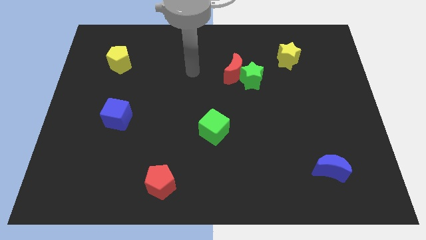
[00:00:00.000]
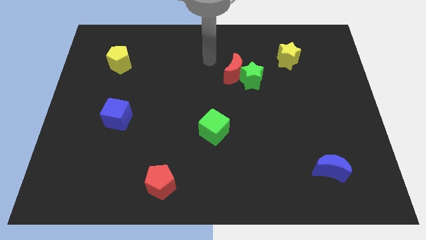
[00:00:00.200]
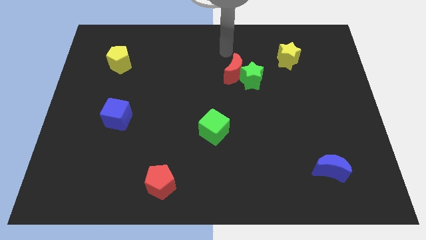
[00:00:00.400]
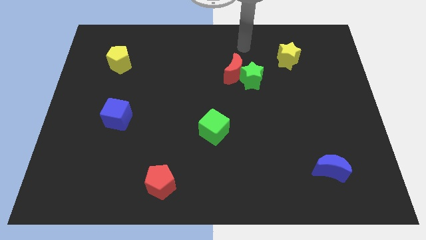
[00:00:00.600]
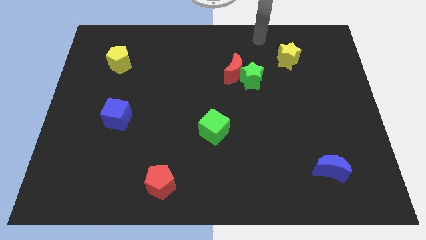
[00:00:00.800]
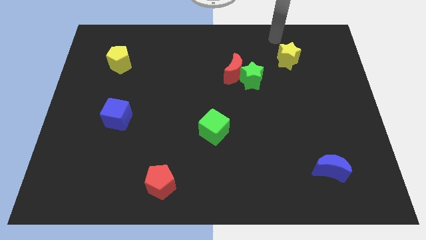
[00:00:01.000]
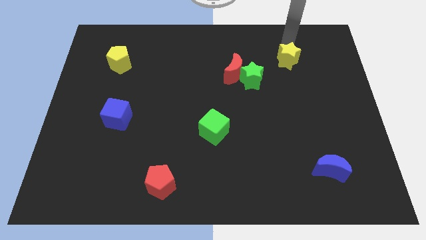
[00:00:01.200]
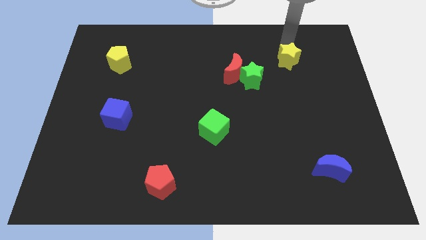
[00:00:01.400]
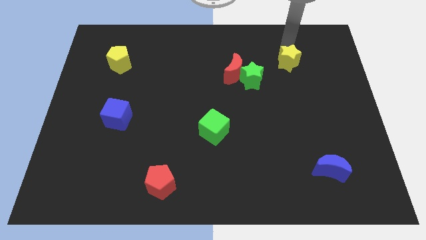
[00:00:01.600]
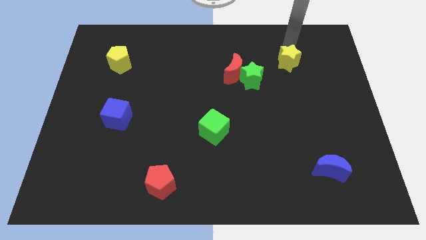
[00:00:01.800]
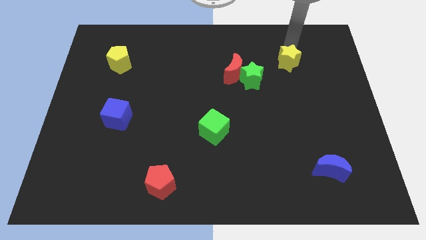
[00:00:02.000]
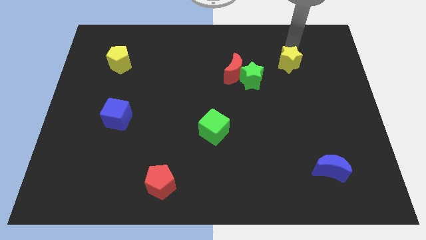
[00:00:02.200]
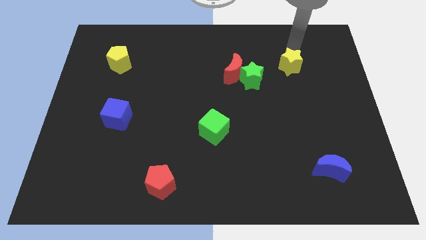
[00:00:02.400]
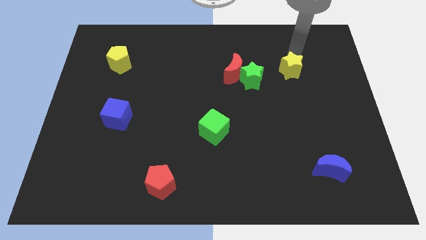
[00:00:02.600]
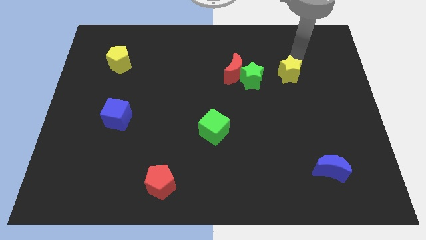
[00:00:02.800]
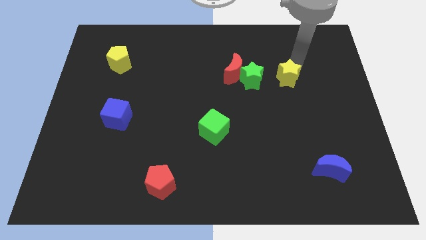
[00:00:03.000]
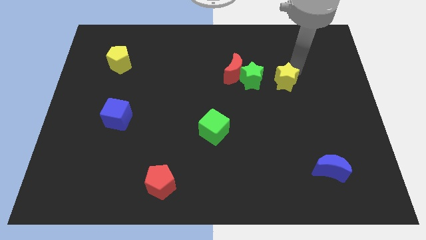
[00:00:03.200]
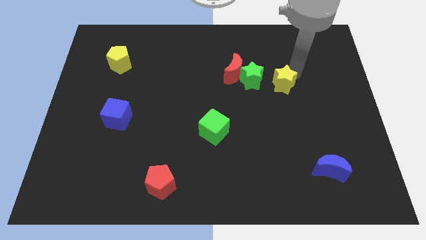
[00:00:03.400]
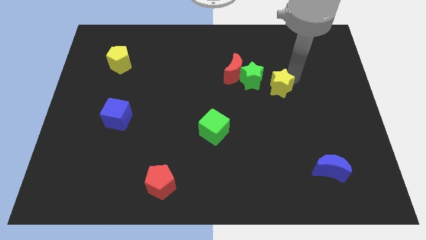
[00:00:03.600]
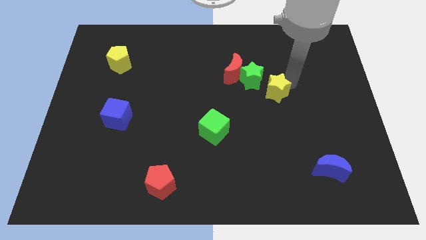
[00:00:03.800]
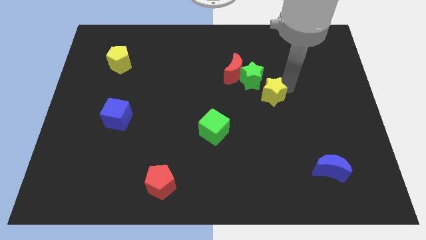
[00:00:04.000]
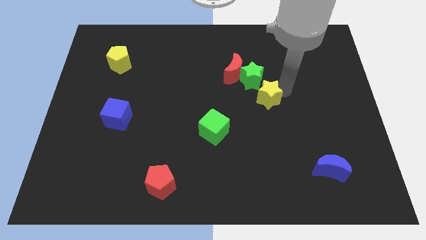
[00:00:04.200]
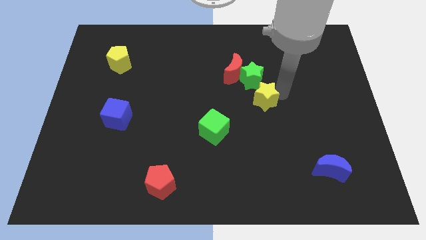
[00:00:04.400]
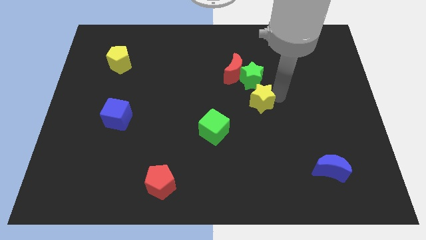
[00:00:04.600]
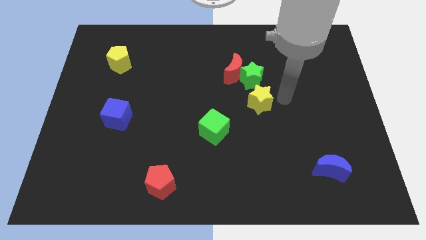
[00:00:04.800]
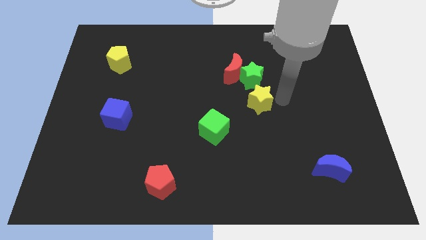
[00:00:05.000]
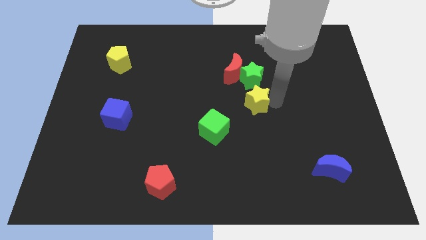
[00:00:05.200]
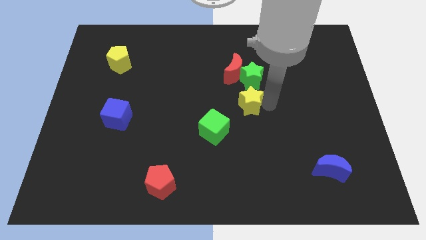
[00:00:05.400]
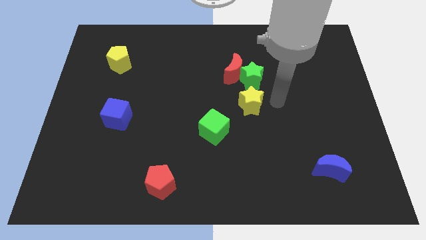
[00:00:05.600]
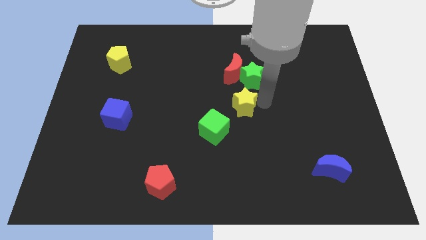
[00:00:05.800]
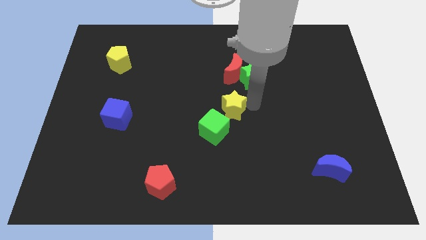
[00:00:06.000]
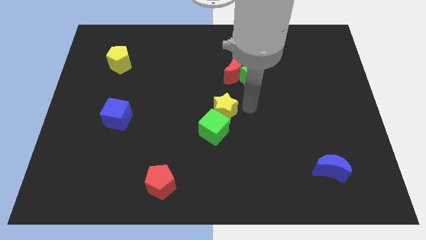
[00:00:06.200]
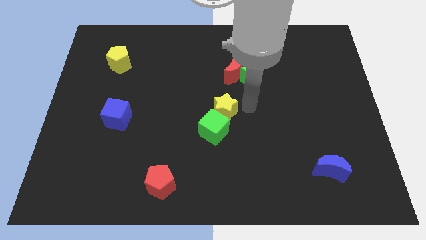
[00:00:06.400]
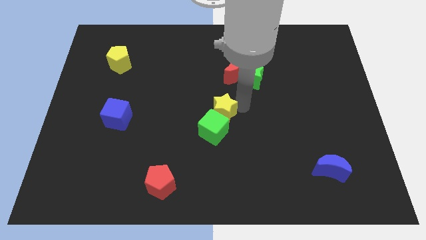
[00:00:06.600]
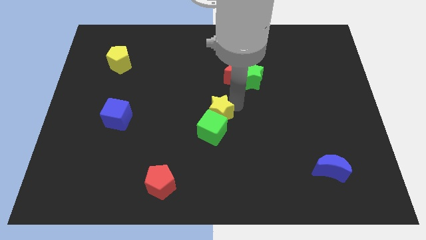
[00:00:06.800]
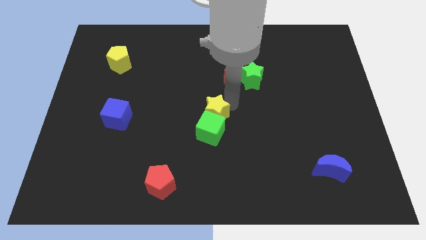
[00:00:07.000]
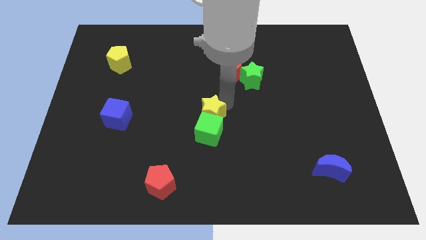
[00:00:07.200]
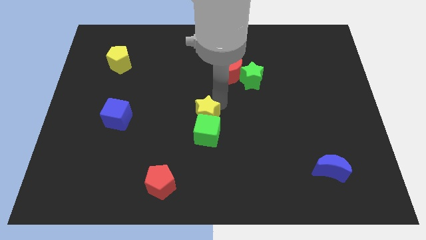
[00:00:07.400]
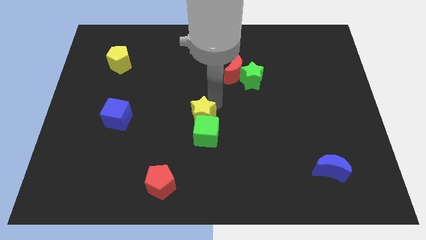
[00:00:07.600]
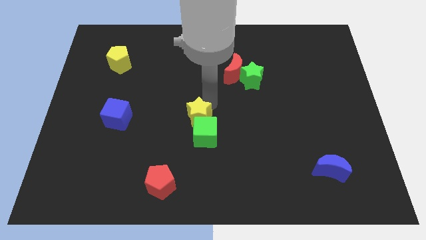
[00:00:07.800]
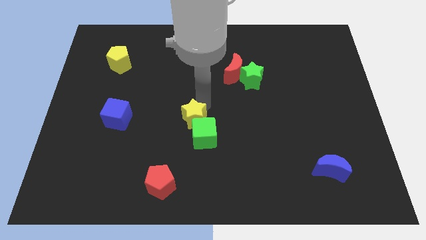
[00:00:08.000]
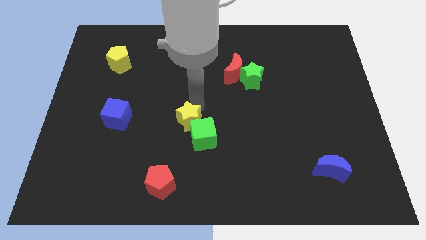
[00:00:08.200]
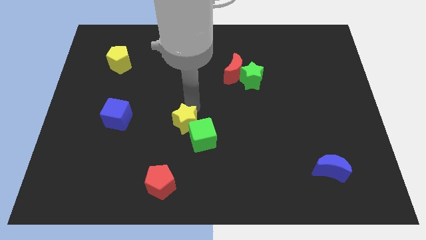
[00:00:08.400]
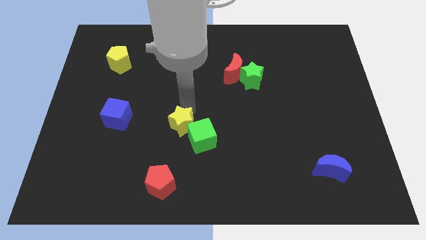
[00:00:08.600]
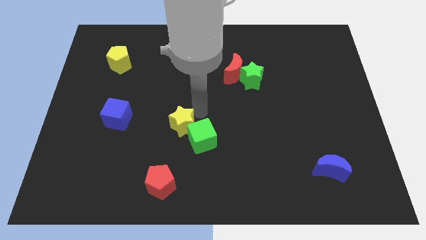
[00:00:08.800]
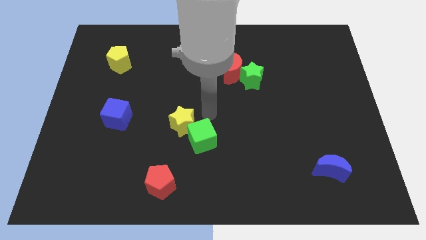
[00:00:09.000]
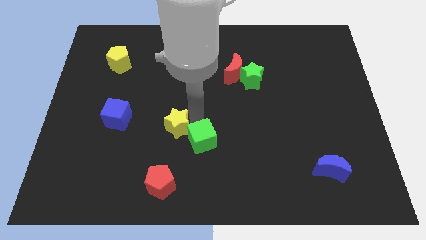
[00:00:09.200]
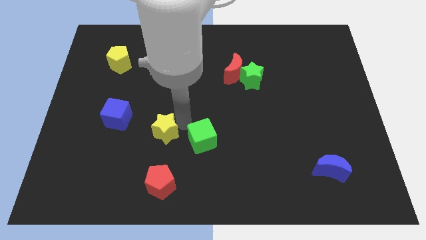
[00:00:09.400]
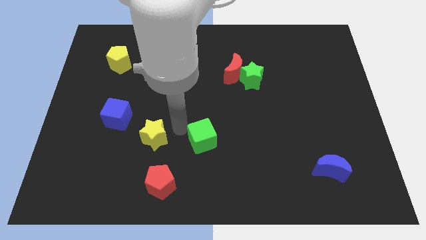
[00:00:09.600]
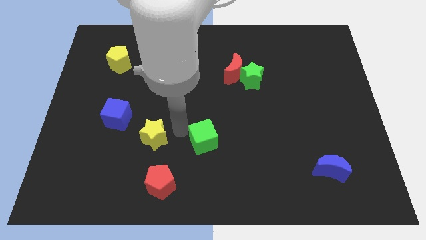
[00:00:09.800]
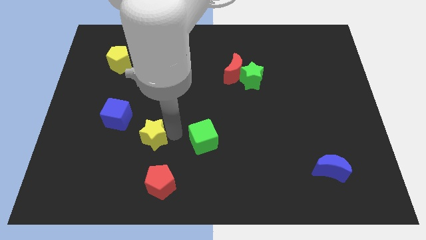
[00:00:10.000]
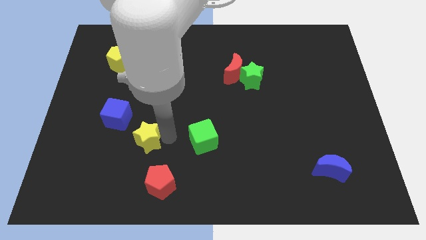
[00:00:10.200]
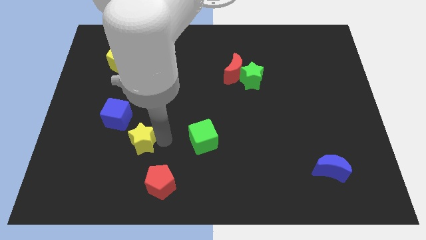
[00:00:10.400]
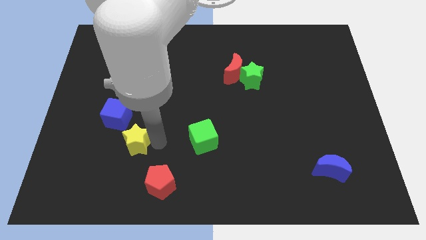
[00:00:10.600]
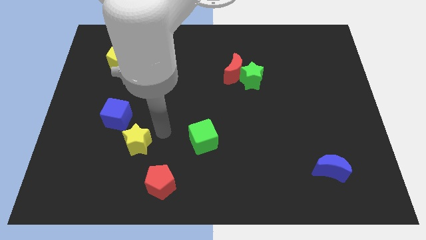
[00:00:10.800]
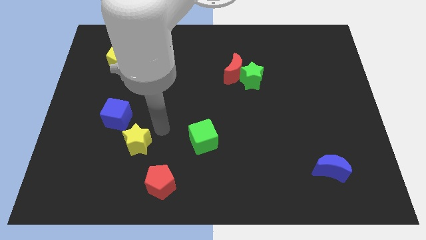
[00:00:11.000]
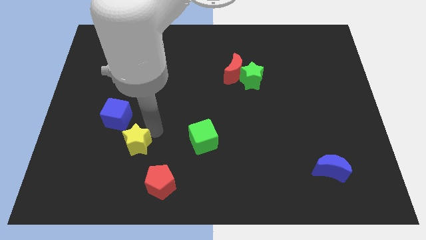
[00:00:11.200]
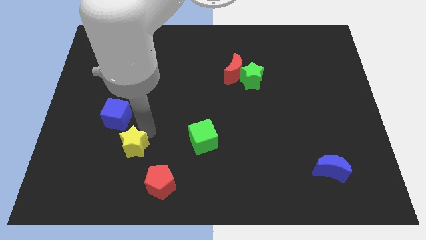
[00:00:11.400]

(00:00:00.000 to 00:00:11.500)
push the yellow star to the bottom of the blue cube

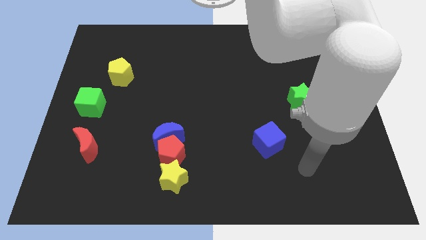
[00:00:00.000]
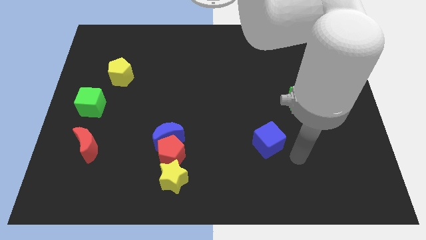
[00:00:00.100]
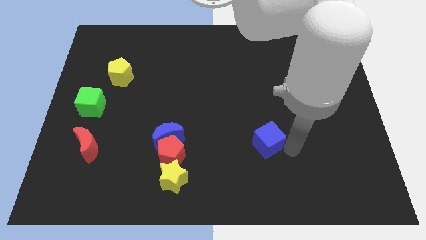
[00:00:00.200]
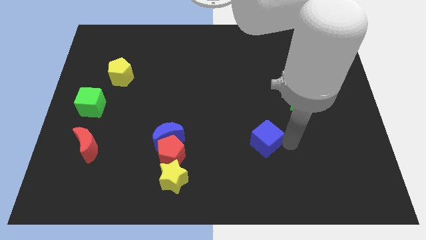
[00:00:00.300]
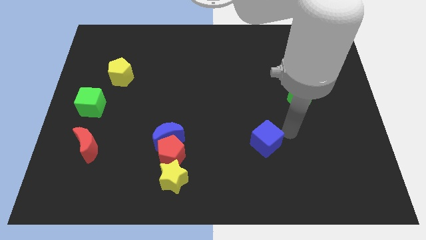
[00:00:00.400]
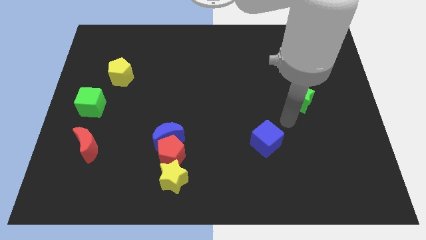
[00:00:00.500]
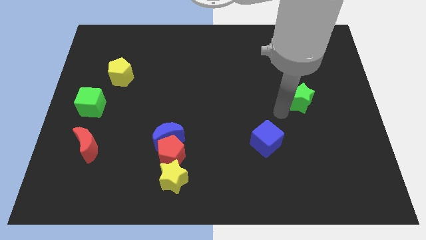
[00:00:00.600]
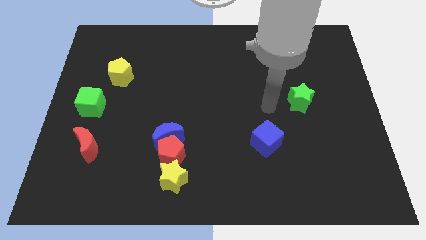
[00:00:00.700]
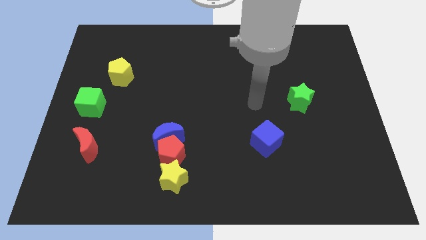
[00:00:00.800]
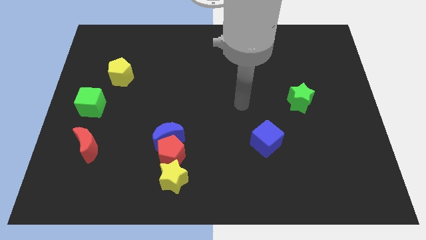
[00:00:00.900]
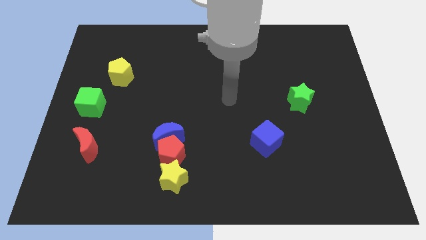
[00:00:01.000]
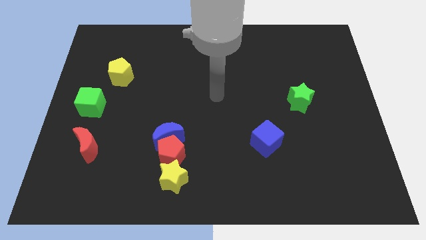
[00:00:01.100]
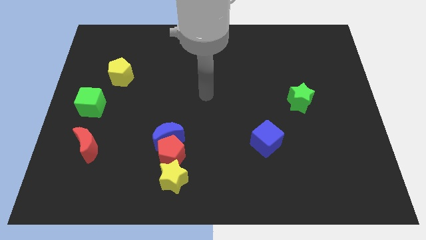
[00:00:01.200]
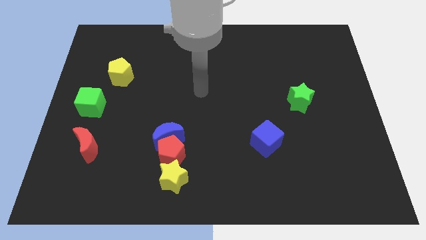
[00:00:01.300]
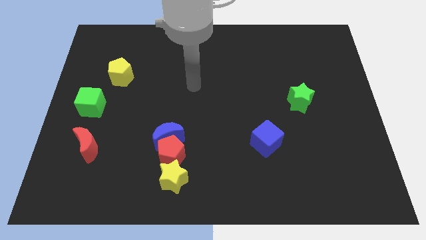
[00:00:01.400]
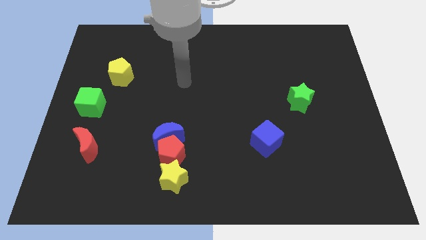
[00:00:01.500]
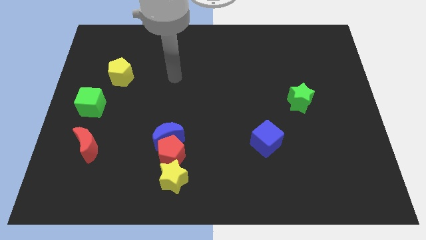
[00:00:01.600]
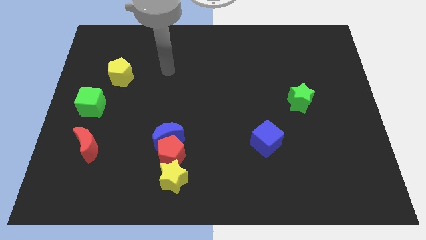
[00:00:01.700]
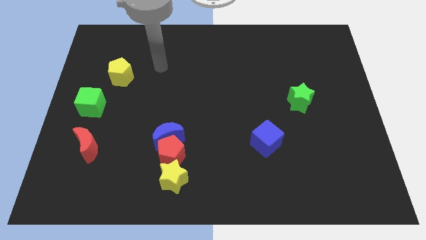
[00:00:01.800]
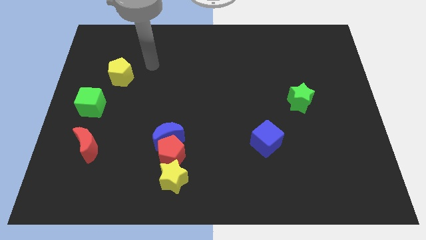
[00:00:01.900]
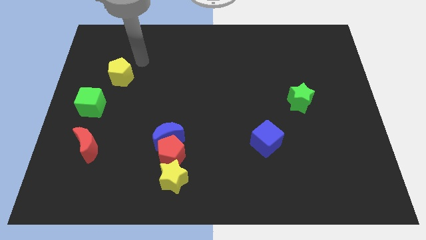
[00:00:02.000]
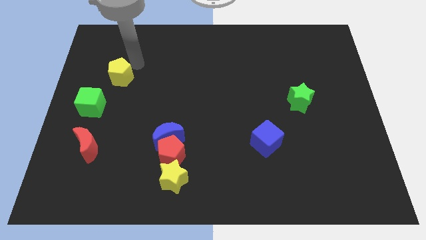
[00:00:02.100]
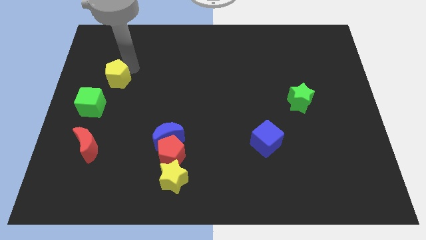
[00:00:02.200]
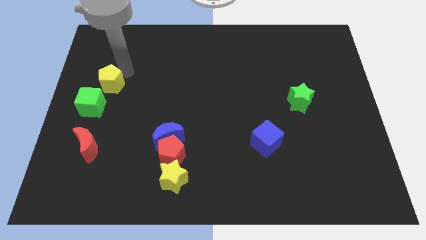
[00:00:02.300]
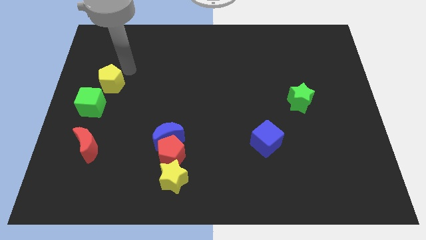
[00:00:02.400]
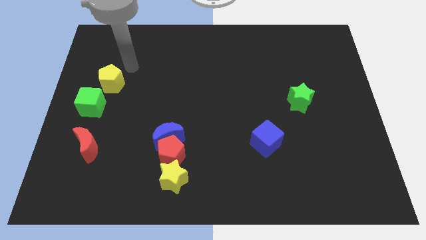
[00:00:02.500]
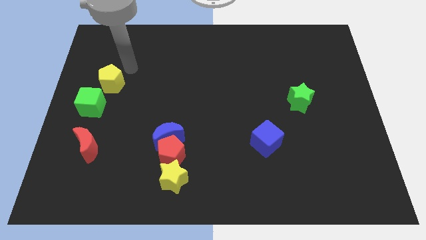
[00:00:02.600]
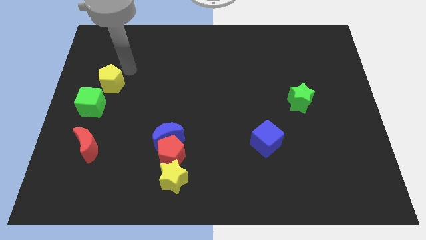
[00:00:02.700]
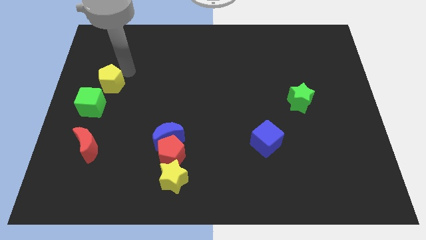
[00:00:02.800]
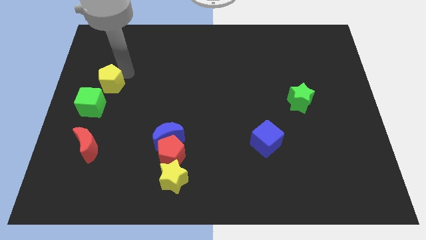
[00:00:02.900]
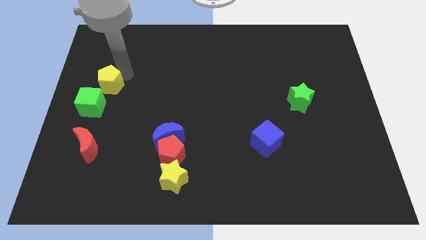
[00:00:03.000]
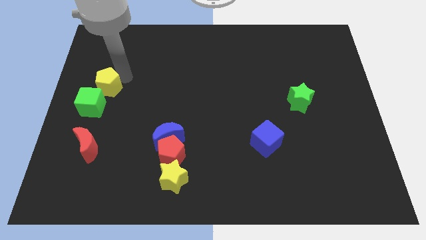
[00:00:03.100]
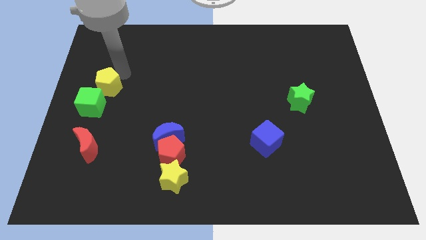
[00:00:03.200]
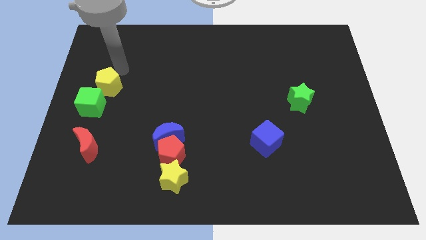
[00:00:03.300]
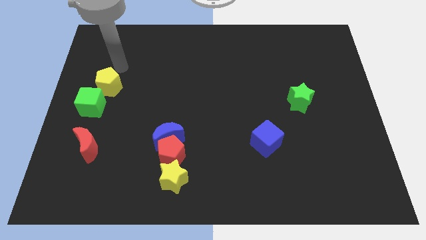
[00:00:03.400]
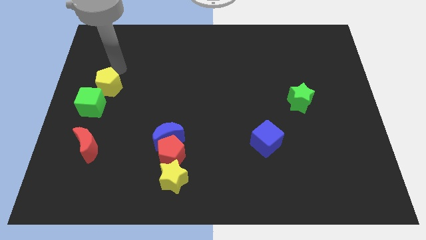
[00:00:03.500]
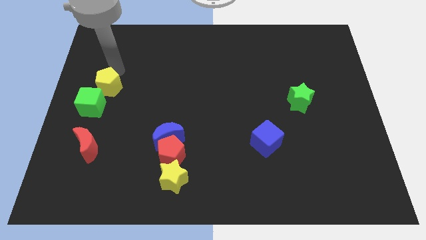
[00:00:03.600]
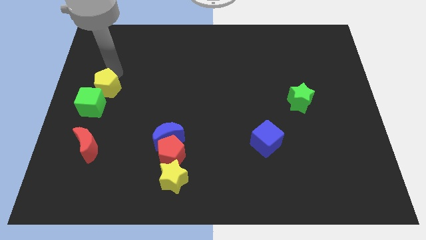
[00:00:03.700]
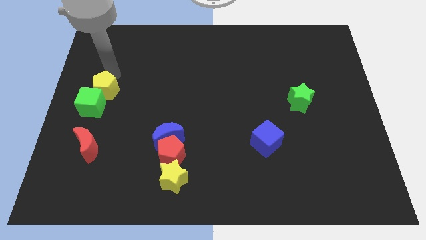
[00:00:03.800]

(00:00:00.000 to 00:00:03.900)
move the yellow pentagon above the red moon
